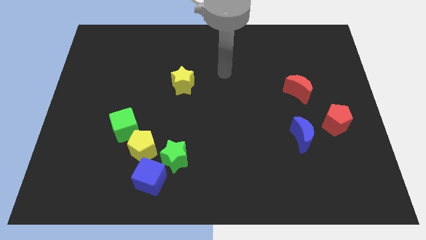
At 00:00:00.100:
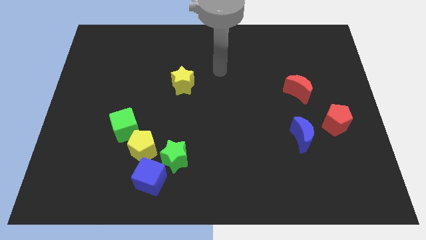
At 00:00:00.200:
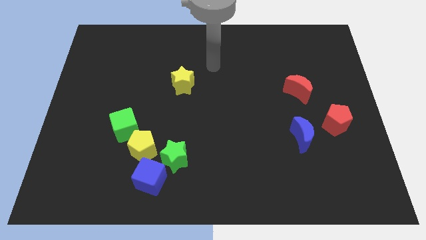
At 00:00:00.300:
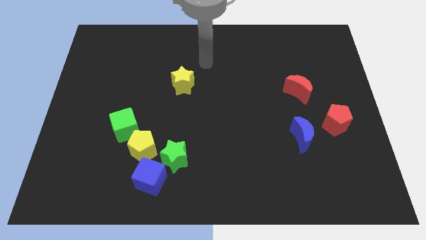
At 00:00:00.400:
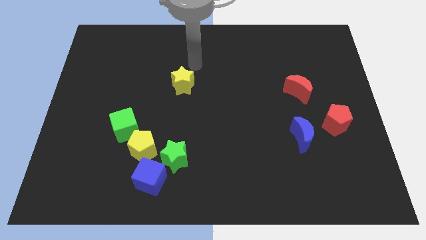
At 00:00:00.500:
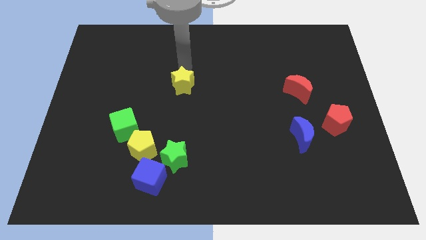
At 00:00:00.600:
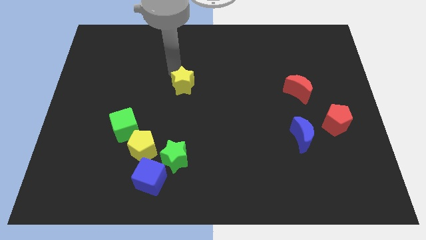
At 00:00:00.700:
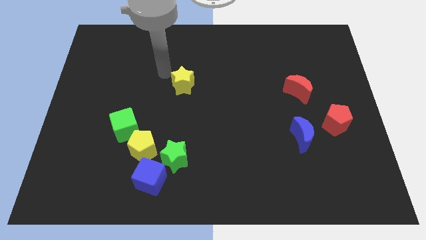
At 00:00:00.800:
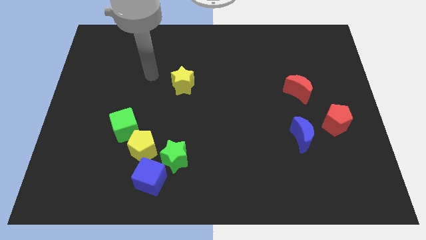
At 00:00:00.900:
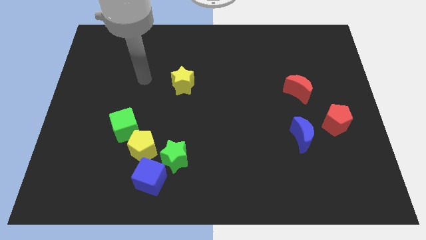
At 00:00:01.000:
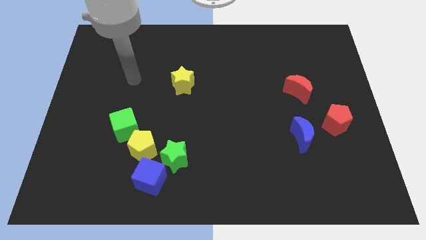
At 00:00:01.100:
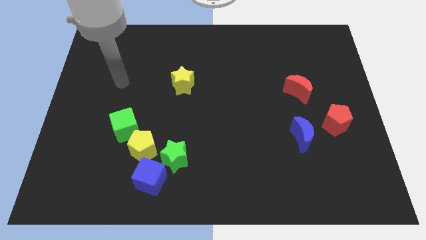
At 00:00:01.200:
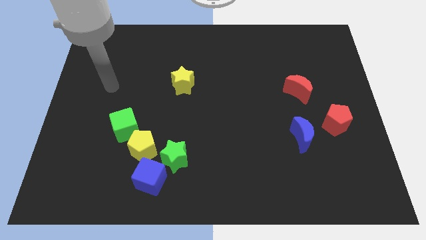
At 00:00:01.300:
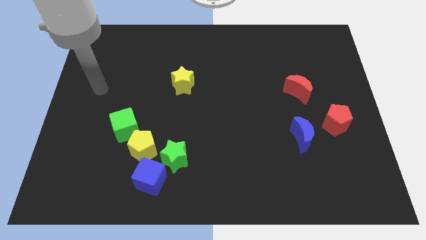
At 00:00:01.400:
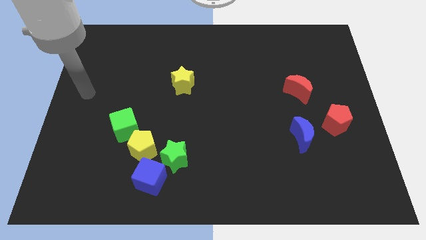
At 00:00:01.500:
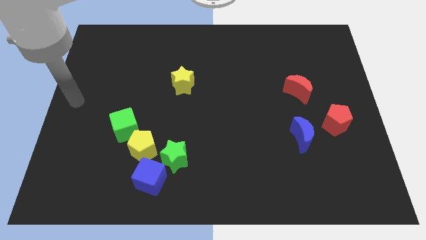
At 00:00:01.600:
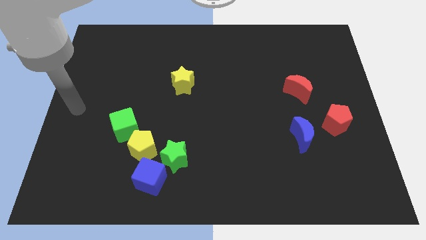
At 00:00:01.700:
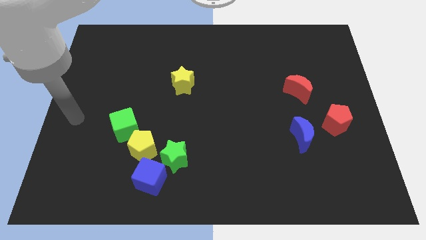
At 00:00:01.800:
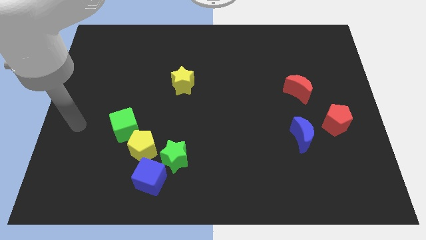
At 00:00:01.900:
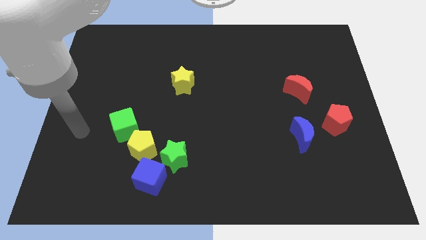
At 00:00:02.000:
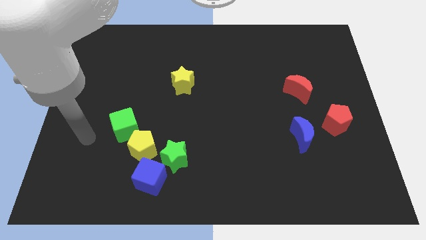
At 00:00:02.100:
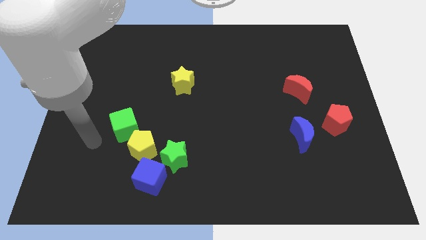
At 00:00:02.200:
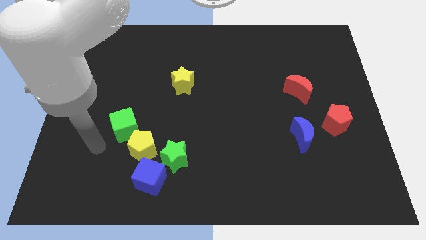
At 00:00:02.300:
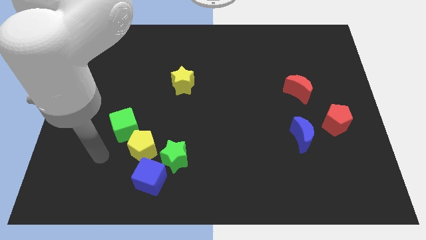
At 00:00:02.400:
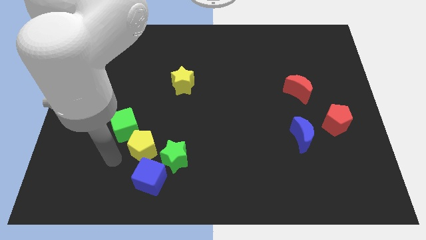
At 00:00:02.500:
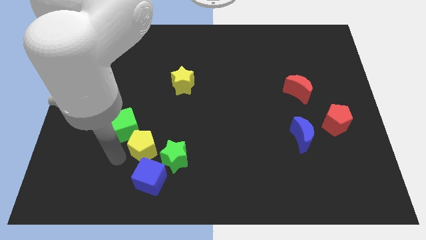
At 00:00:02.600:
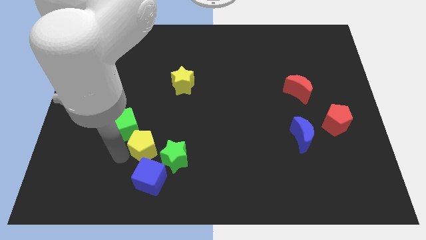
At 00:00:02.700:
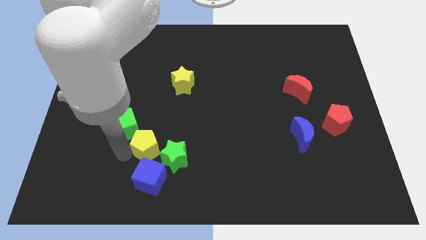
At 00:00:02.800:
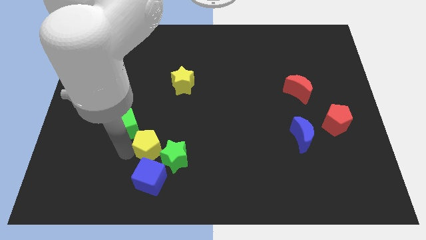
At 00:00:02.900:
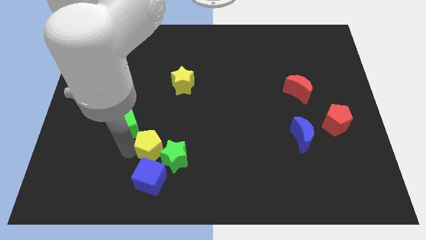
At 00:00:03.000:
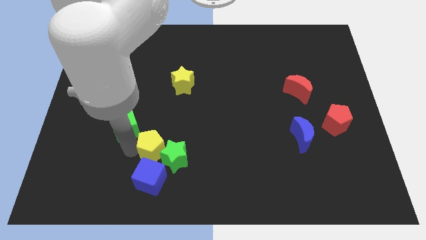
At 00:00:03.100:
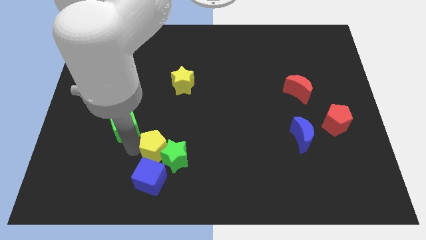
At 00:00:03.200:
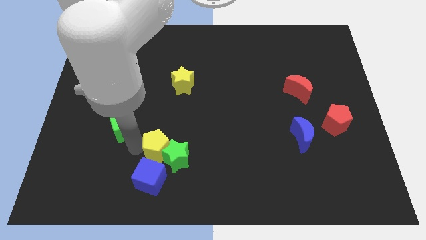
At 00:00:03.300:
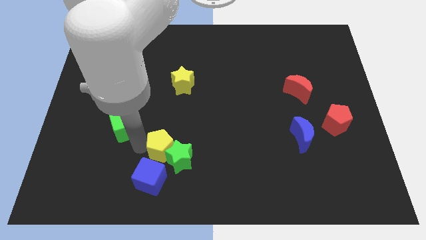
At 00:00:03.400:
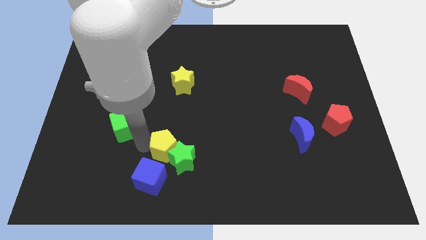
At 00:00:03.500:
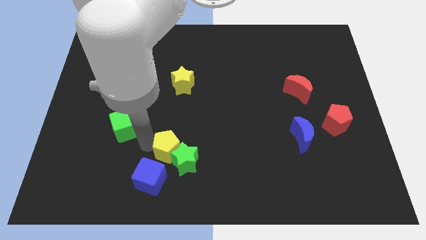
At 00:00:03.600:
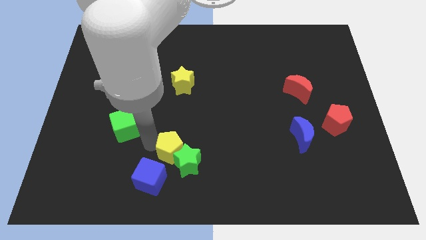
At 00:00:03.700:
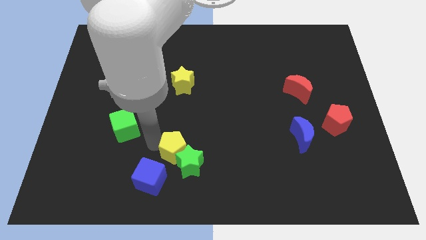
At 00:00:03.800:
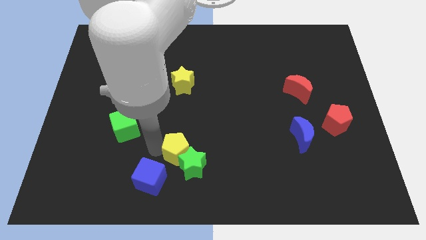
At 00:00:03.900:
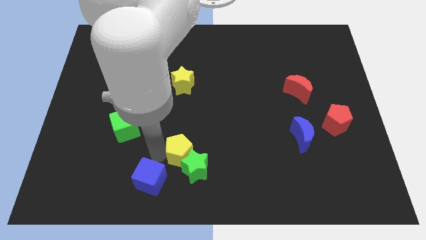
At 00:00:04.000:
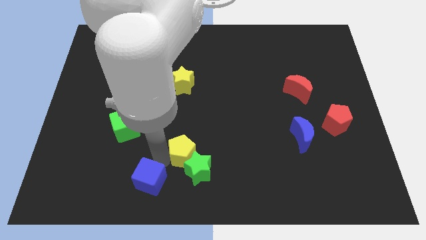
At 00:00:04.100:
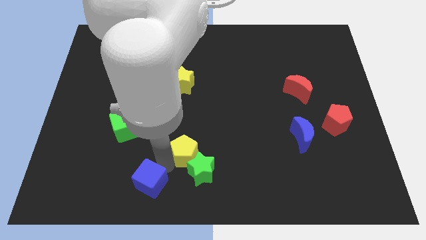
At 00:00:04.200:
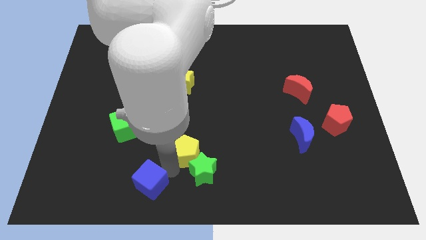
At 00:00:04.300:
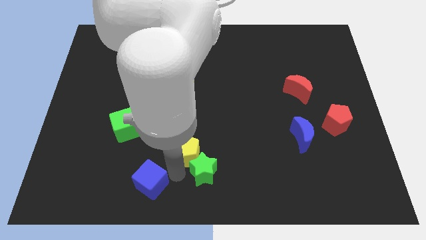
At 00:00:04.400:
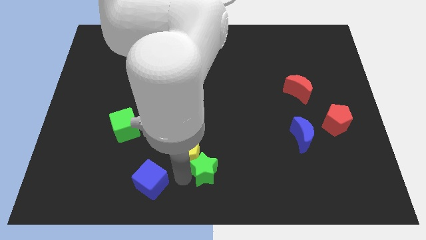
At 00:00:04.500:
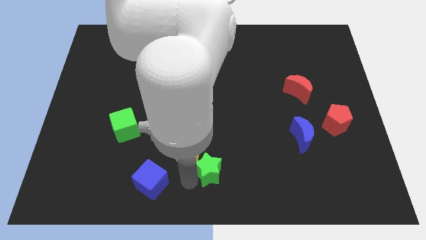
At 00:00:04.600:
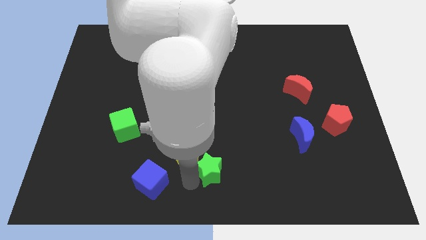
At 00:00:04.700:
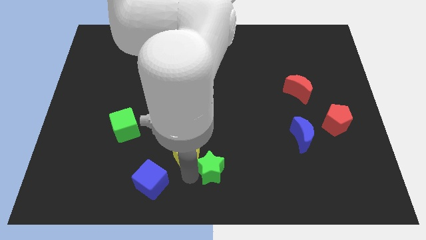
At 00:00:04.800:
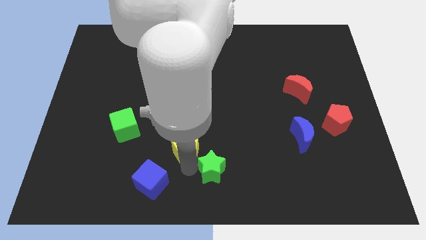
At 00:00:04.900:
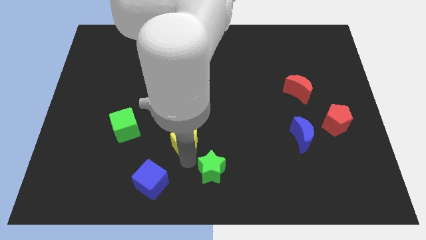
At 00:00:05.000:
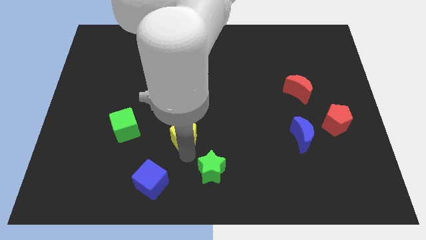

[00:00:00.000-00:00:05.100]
move the yellow pentagon to the middle

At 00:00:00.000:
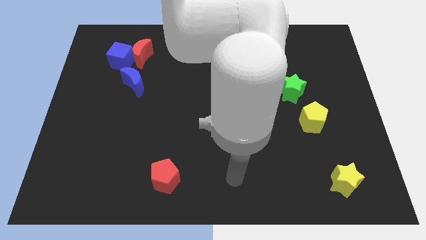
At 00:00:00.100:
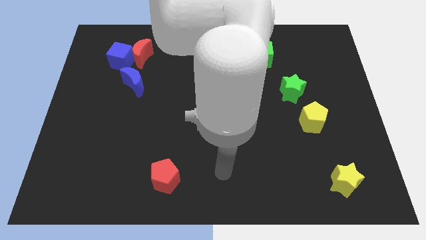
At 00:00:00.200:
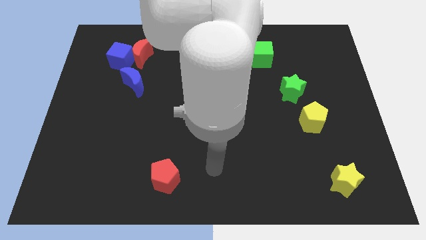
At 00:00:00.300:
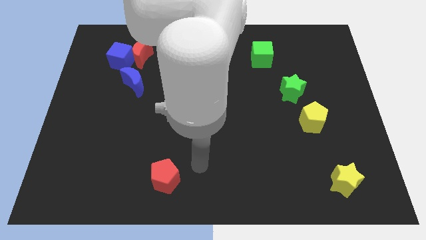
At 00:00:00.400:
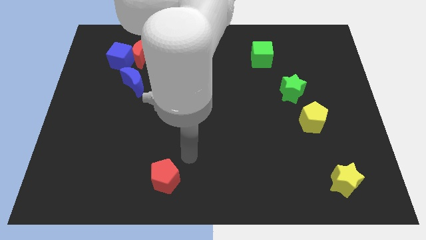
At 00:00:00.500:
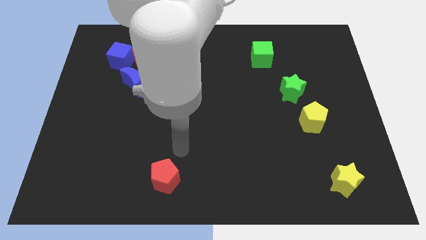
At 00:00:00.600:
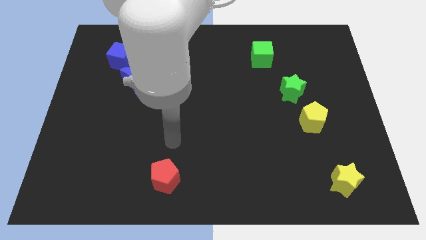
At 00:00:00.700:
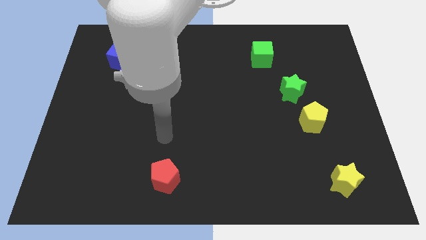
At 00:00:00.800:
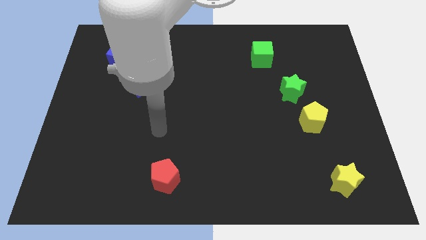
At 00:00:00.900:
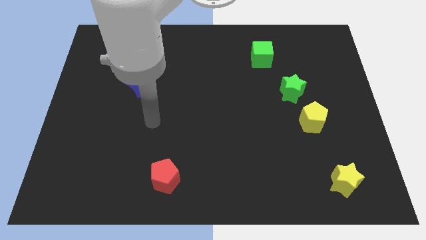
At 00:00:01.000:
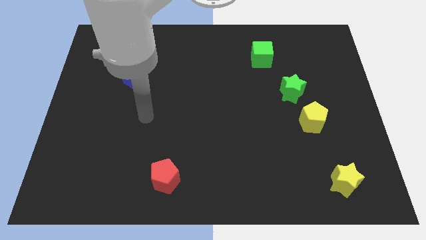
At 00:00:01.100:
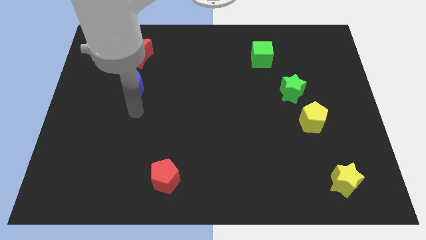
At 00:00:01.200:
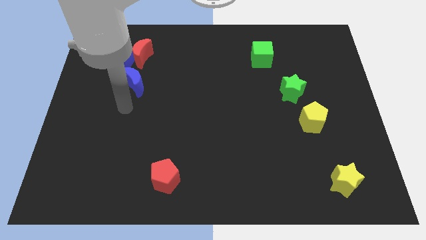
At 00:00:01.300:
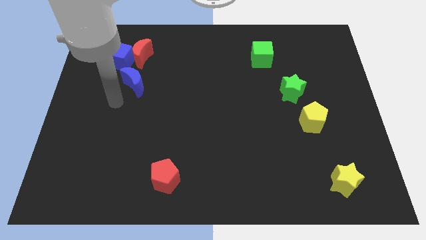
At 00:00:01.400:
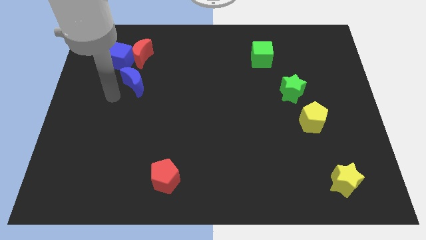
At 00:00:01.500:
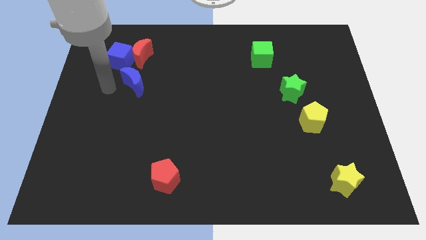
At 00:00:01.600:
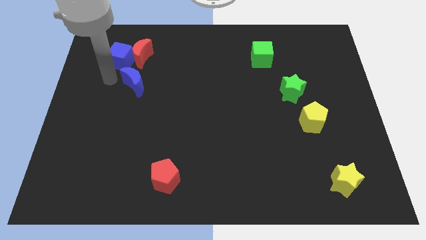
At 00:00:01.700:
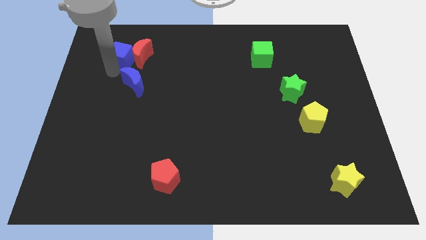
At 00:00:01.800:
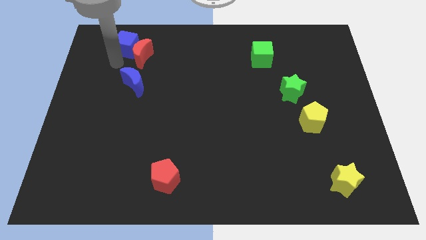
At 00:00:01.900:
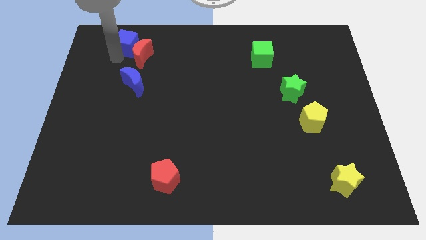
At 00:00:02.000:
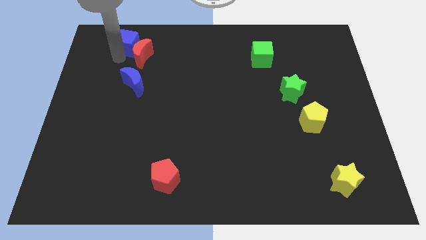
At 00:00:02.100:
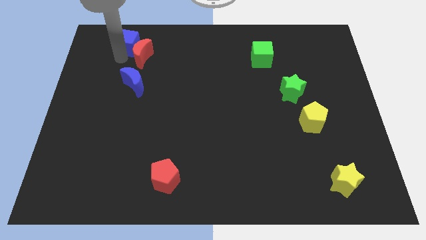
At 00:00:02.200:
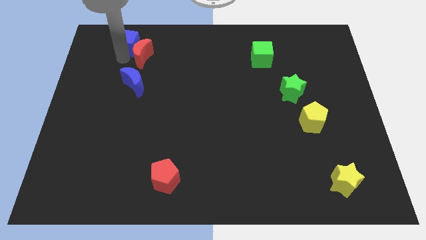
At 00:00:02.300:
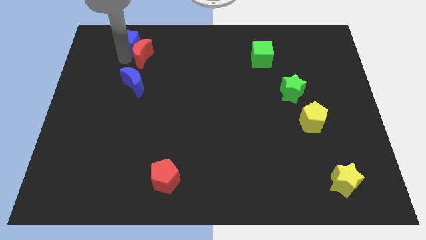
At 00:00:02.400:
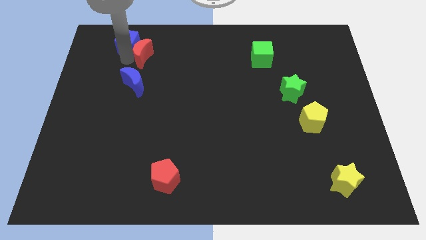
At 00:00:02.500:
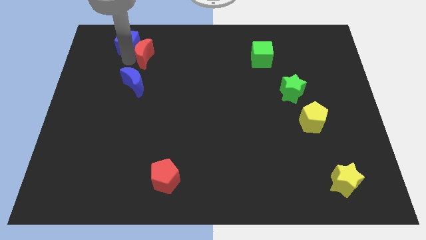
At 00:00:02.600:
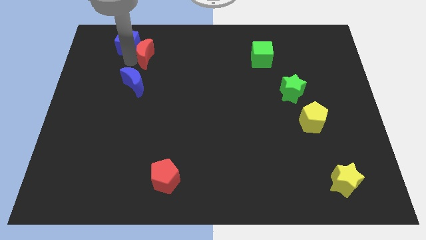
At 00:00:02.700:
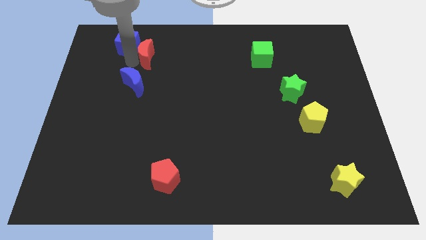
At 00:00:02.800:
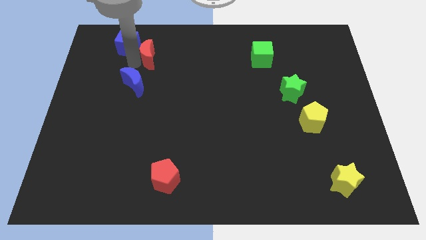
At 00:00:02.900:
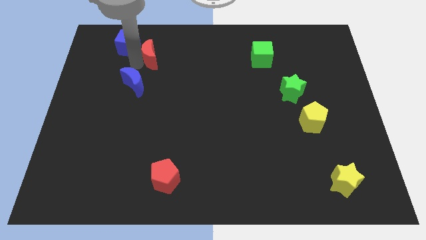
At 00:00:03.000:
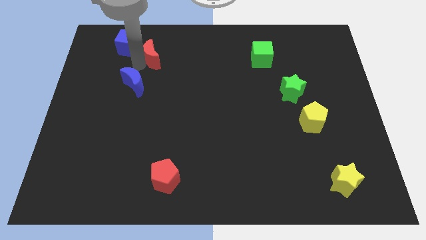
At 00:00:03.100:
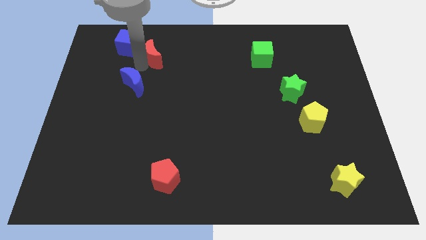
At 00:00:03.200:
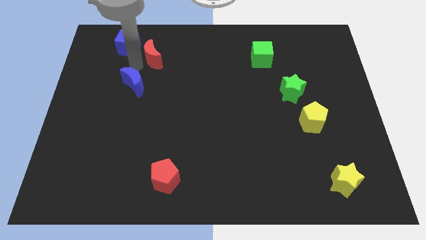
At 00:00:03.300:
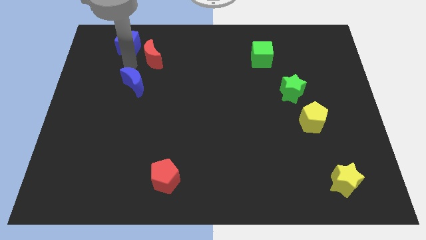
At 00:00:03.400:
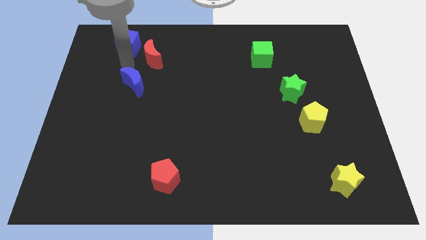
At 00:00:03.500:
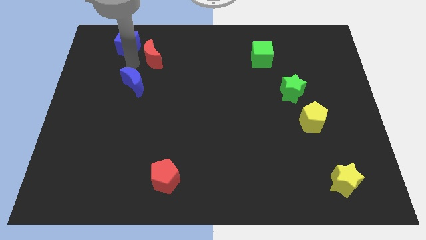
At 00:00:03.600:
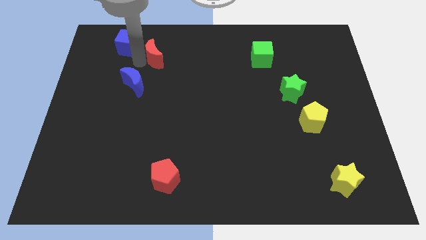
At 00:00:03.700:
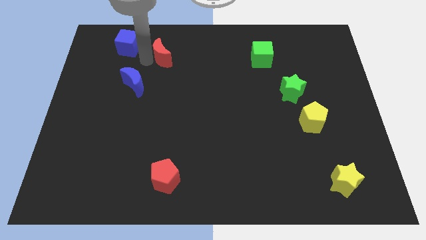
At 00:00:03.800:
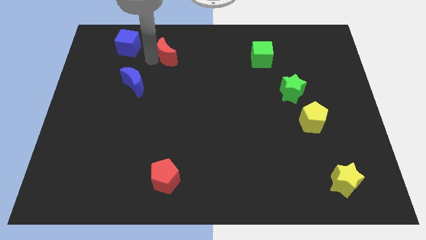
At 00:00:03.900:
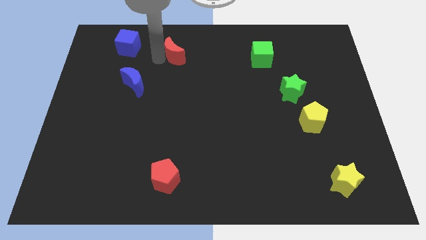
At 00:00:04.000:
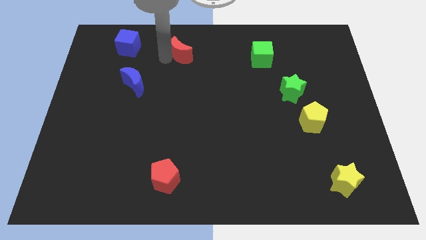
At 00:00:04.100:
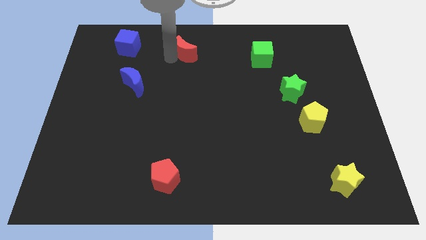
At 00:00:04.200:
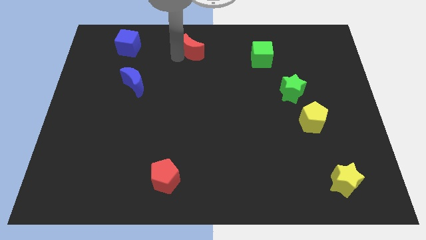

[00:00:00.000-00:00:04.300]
move the red moon to the top
